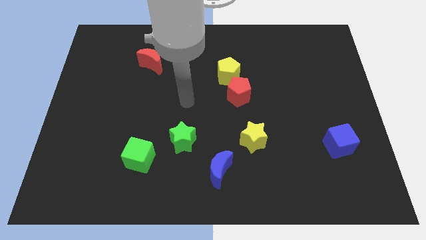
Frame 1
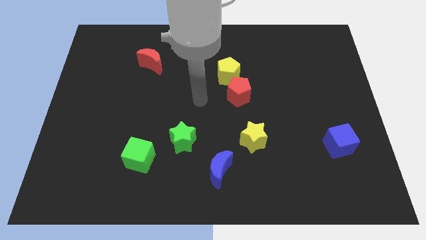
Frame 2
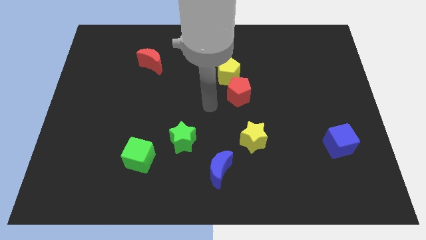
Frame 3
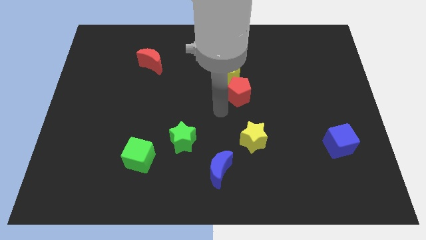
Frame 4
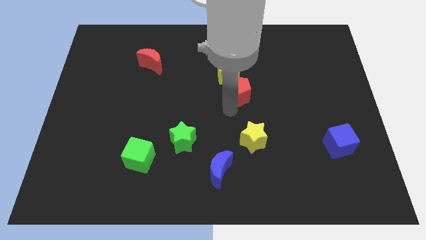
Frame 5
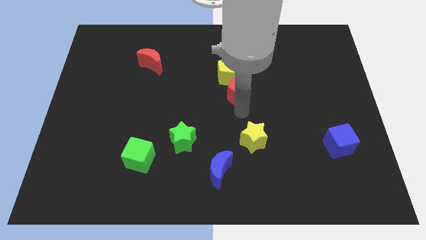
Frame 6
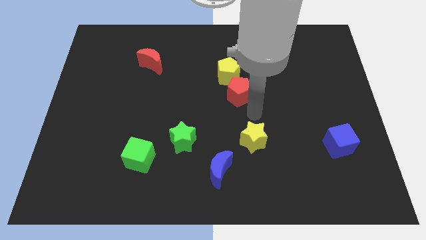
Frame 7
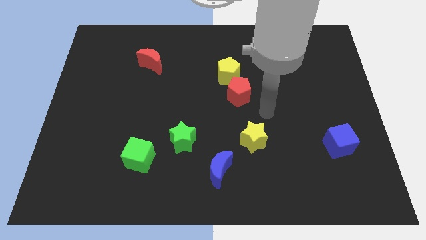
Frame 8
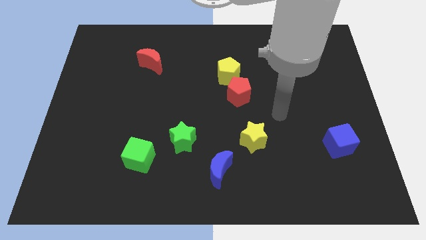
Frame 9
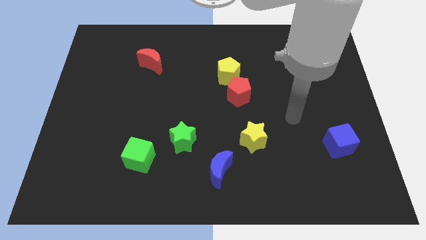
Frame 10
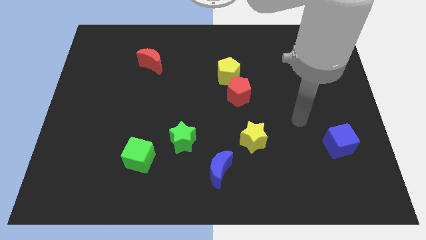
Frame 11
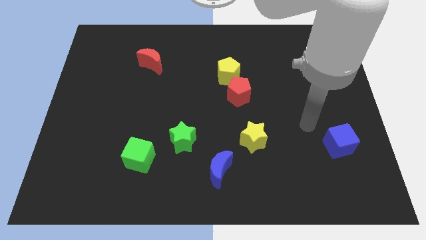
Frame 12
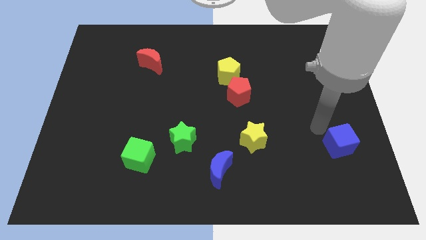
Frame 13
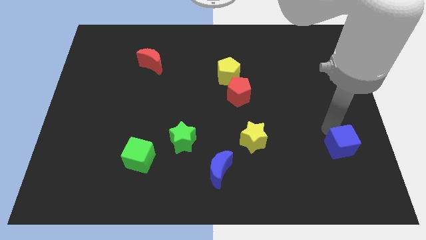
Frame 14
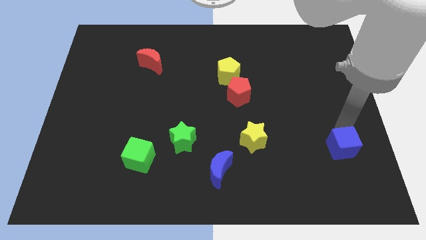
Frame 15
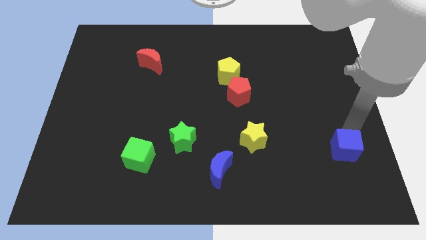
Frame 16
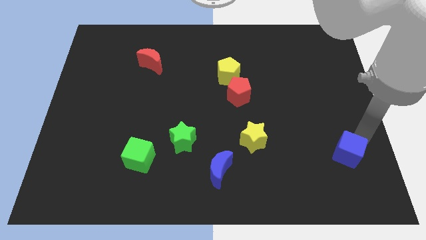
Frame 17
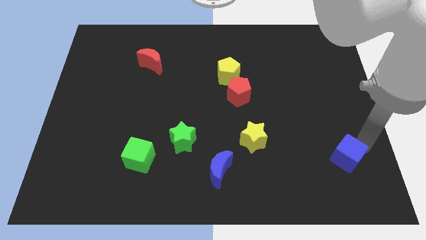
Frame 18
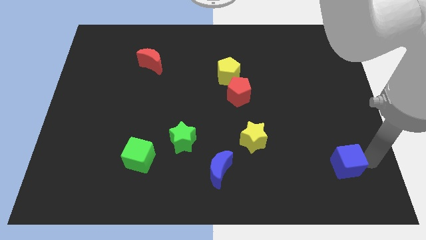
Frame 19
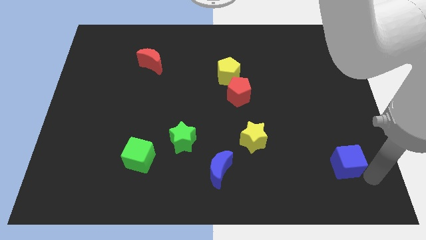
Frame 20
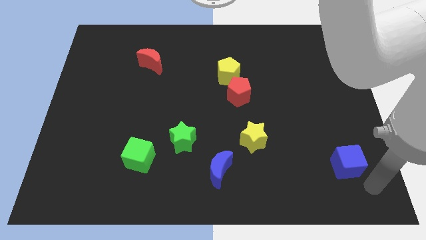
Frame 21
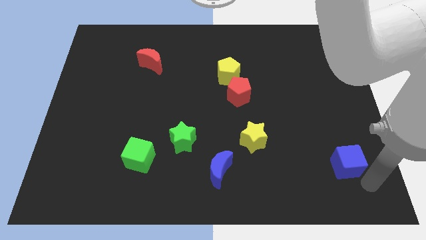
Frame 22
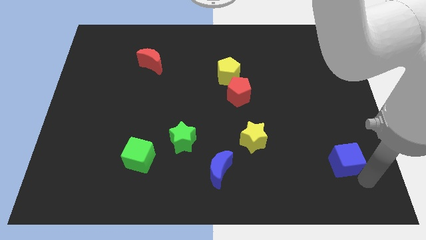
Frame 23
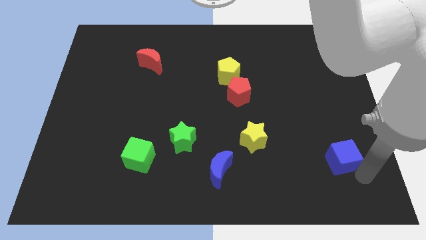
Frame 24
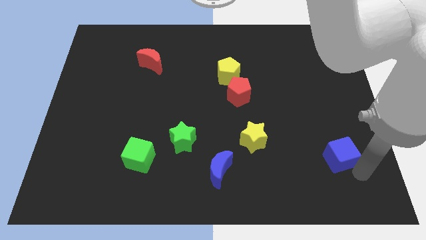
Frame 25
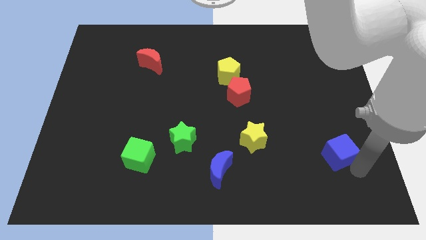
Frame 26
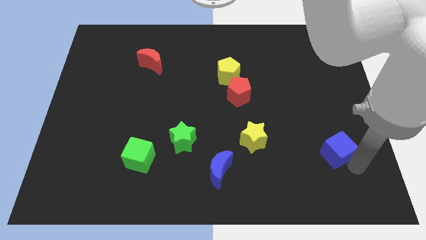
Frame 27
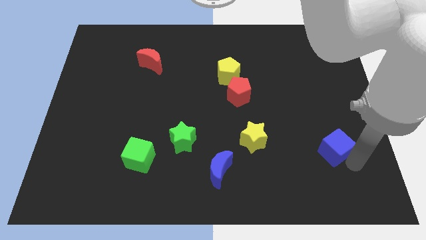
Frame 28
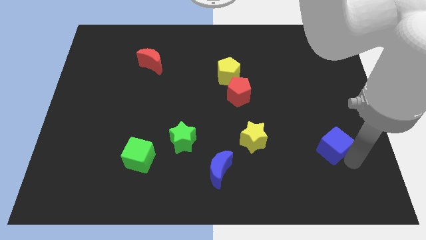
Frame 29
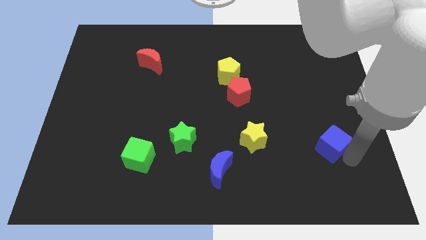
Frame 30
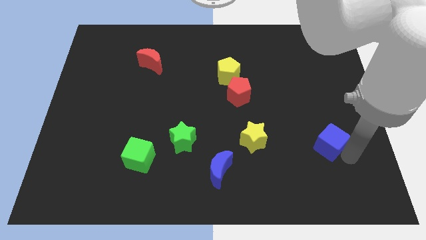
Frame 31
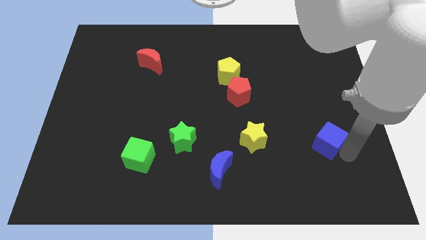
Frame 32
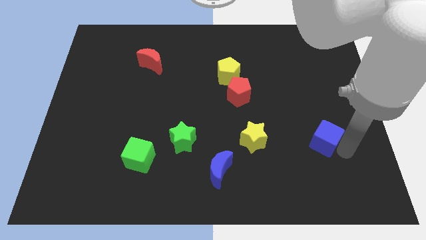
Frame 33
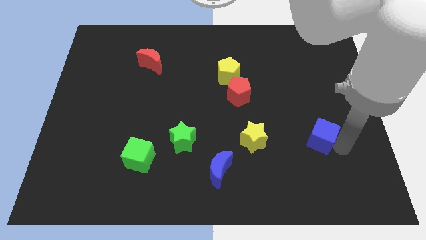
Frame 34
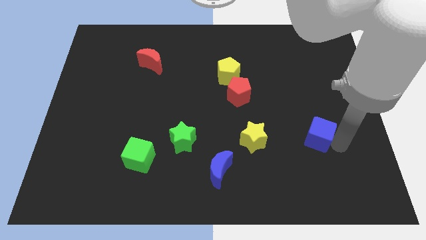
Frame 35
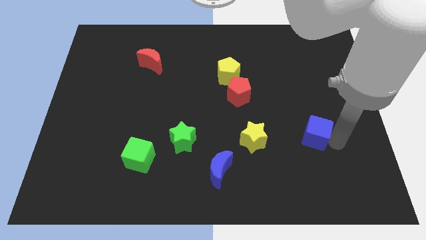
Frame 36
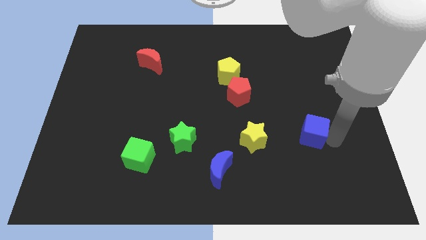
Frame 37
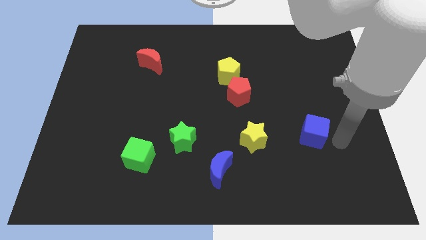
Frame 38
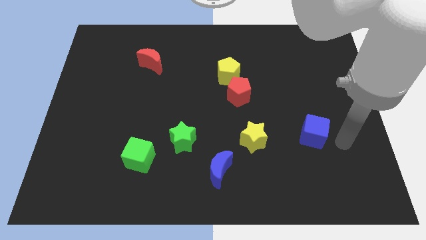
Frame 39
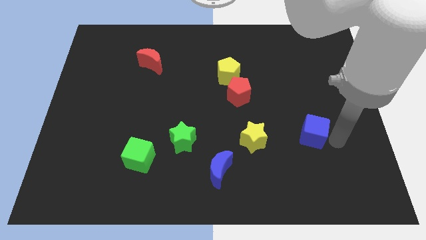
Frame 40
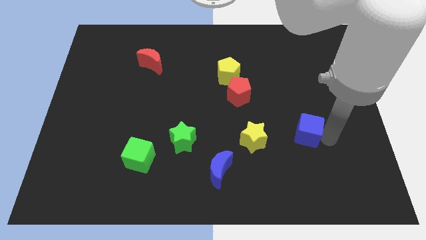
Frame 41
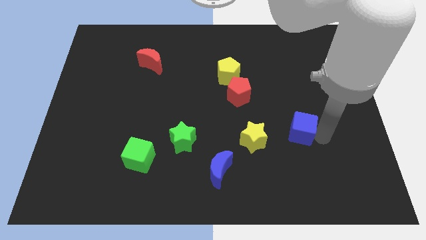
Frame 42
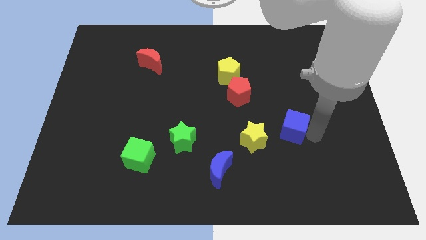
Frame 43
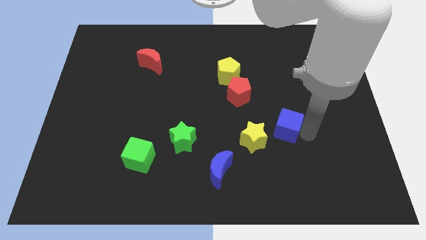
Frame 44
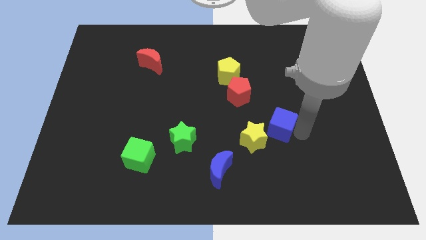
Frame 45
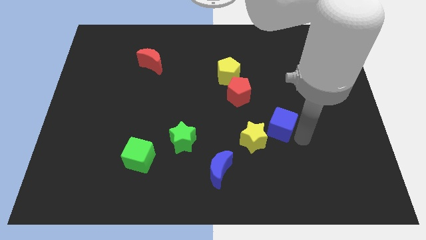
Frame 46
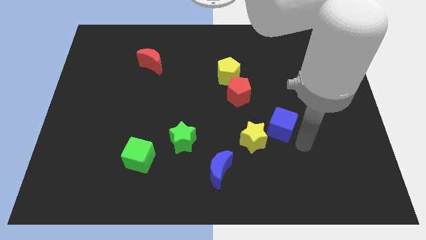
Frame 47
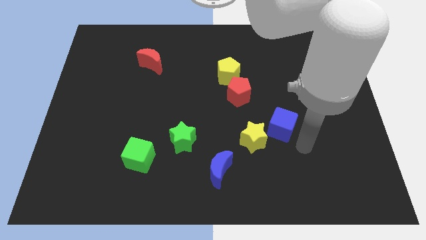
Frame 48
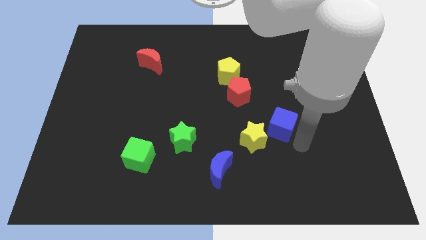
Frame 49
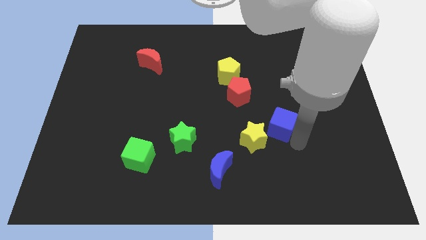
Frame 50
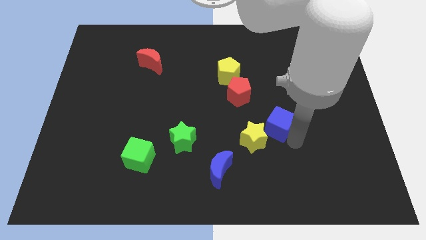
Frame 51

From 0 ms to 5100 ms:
push the blue cube diagonally down and to the right of the red pentagon

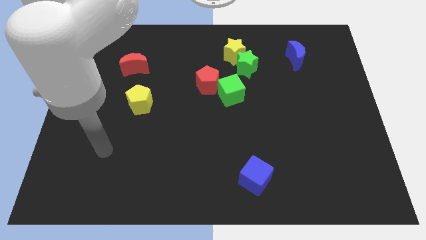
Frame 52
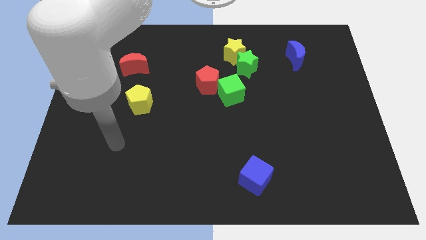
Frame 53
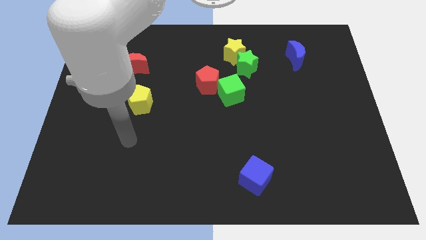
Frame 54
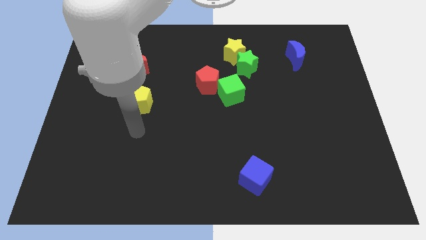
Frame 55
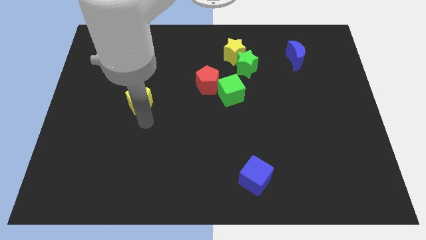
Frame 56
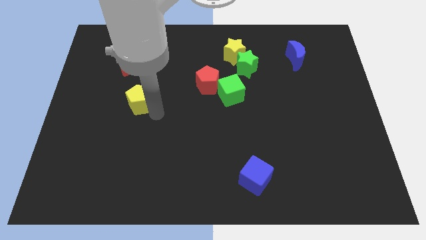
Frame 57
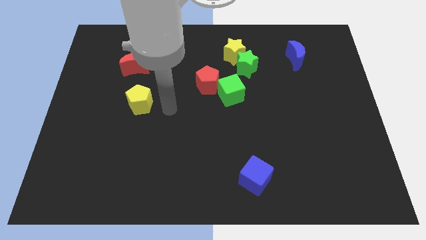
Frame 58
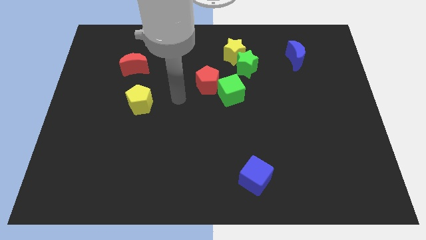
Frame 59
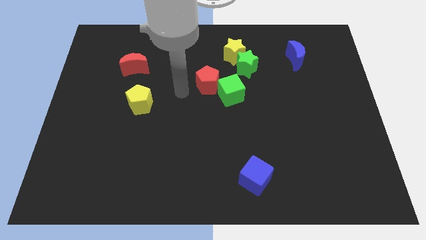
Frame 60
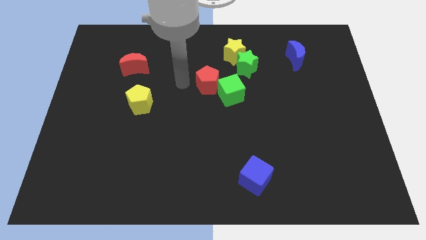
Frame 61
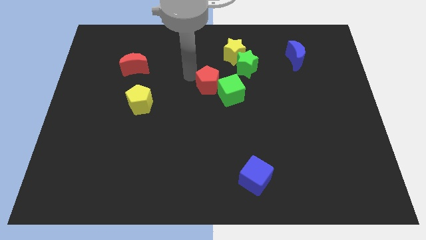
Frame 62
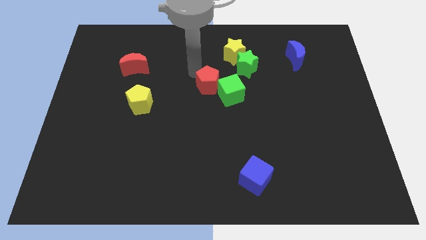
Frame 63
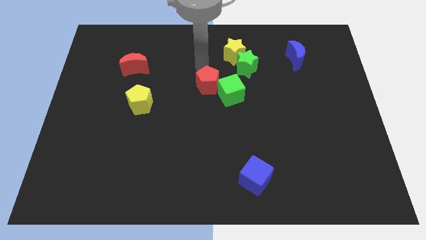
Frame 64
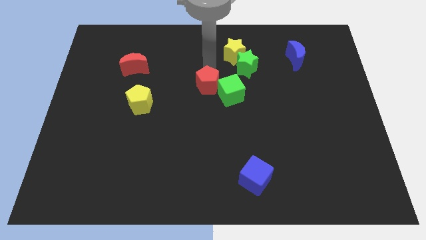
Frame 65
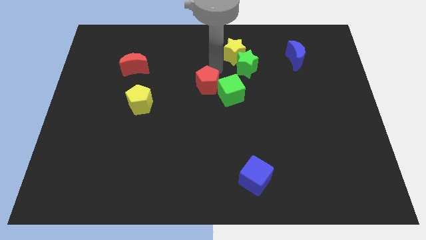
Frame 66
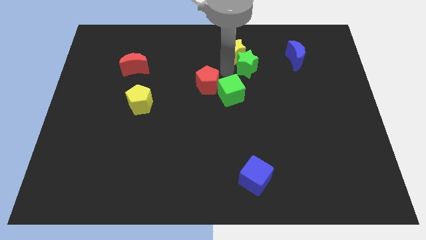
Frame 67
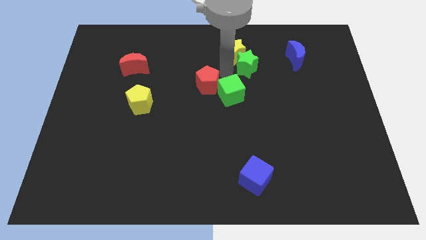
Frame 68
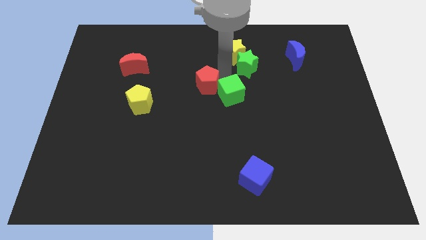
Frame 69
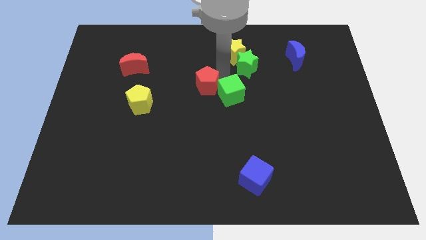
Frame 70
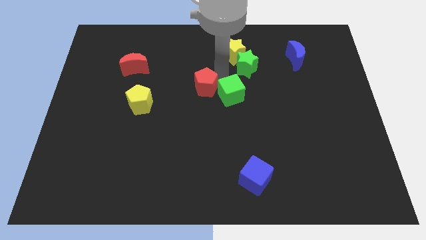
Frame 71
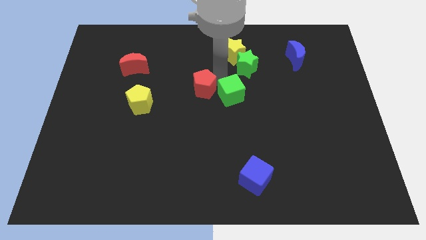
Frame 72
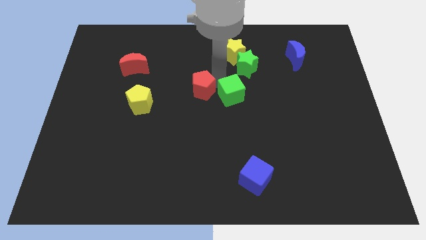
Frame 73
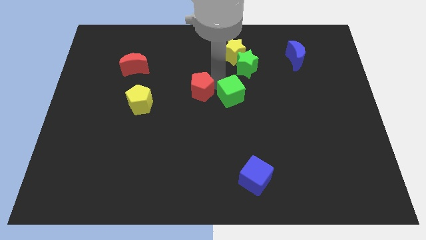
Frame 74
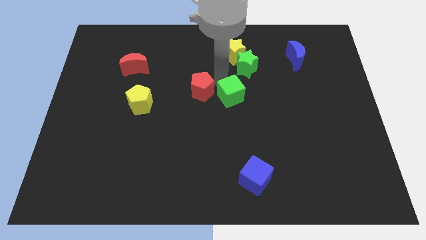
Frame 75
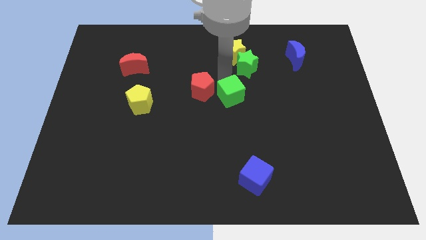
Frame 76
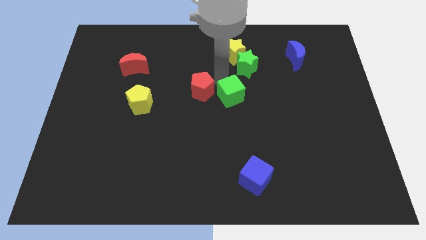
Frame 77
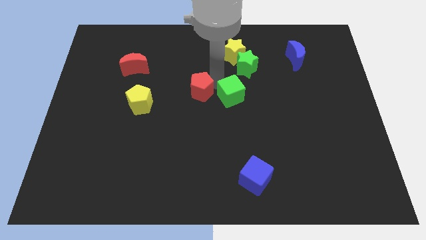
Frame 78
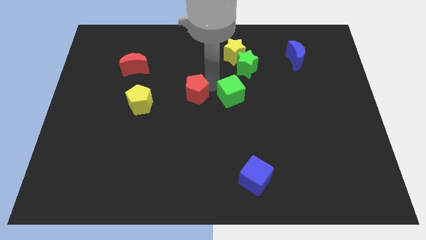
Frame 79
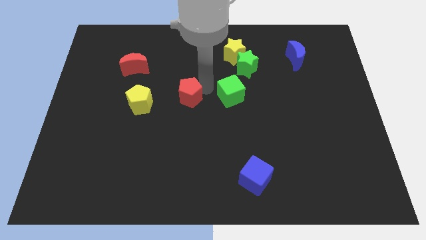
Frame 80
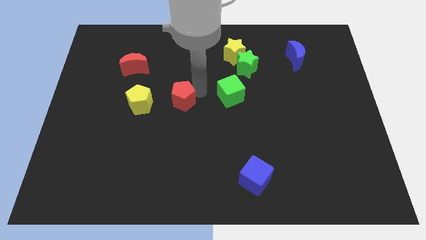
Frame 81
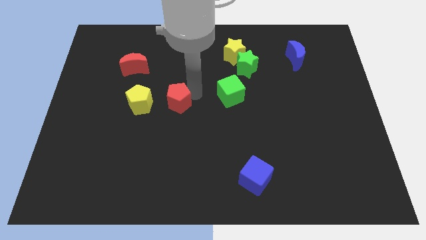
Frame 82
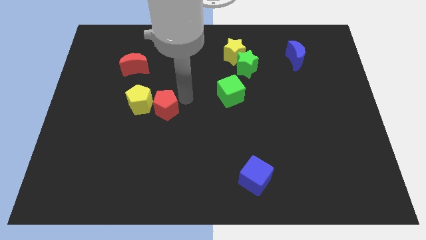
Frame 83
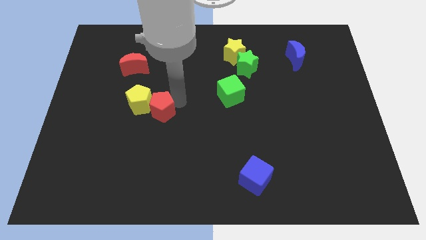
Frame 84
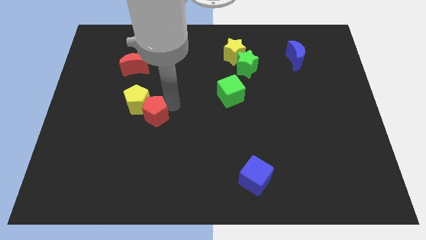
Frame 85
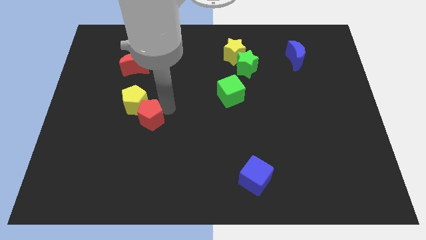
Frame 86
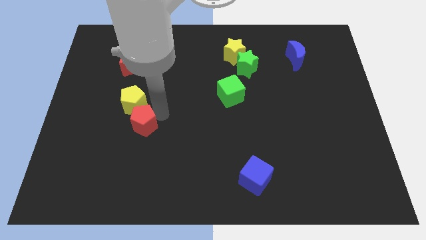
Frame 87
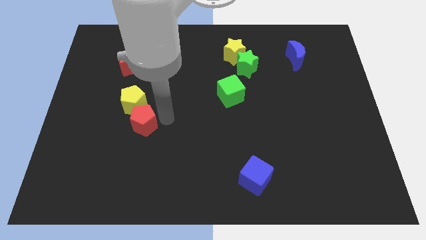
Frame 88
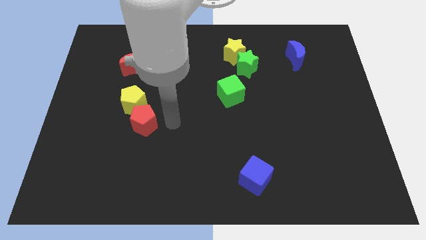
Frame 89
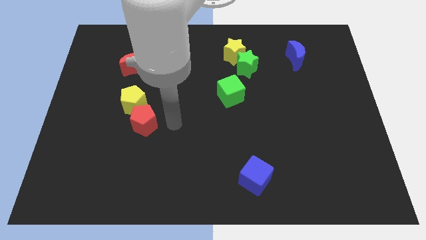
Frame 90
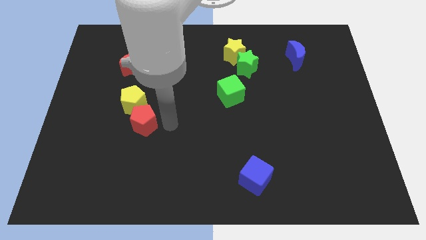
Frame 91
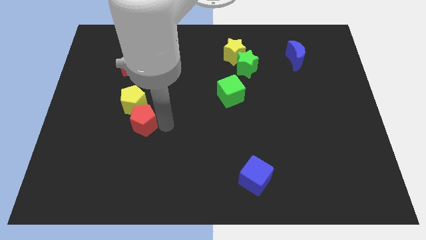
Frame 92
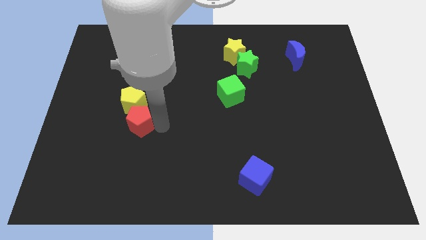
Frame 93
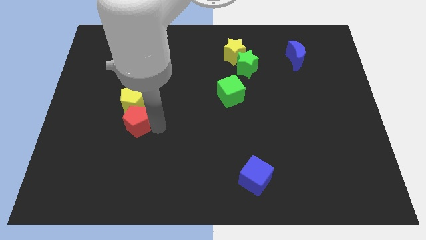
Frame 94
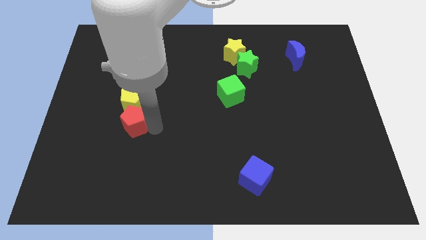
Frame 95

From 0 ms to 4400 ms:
move the red pentagon to the bottom left of the yellow pentagon
